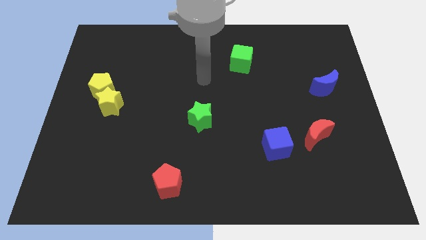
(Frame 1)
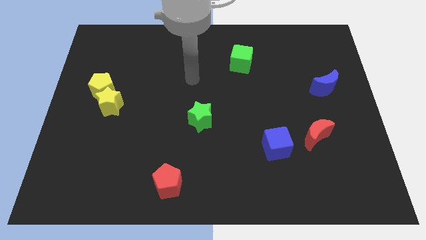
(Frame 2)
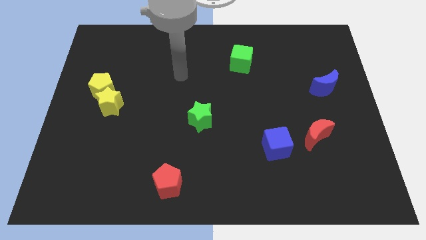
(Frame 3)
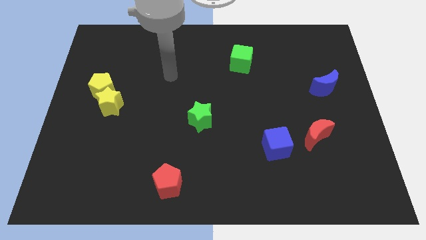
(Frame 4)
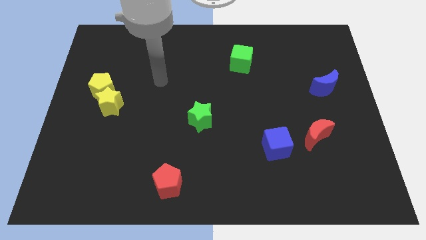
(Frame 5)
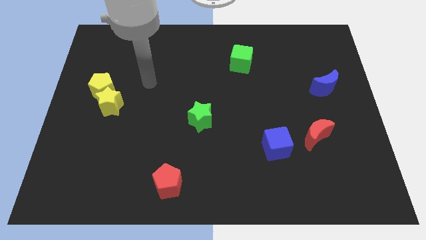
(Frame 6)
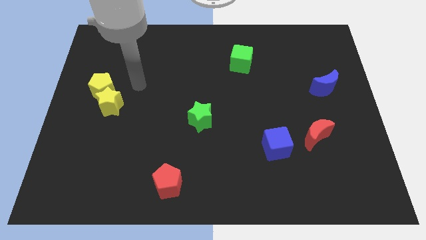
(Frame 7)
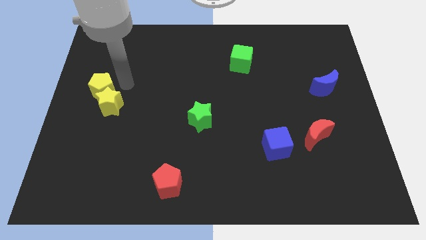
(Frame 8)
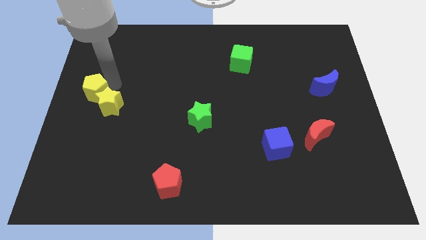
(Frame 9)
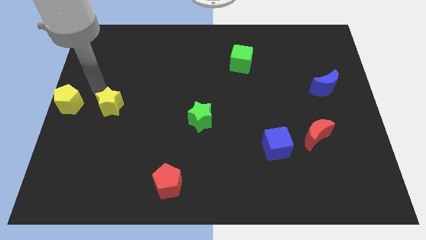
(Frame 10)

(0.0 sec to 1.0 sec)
move the yellow star away from the yellow pentagon

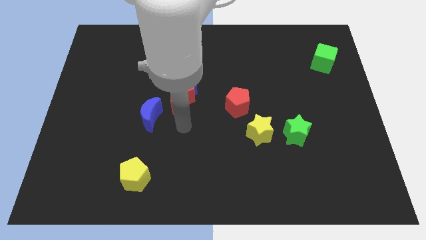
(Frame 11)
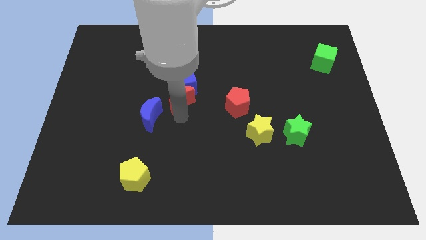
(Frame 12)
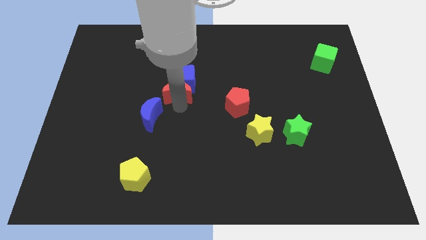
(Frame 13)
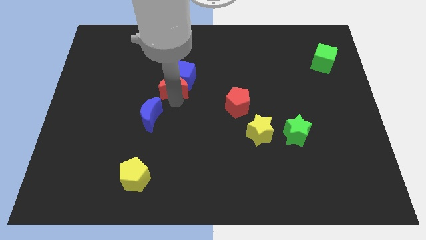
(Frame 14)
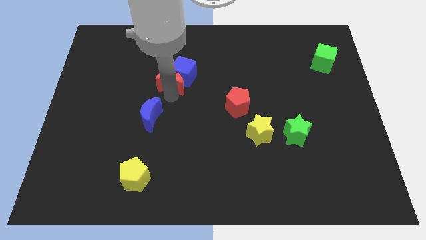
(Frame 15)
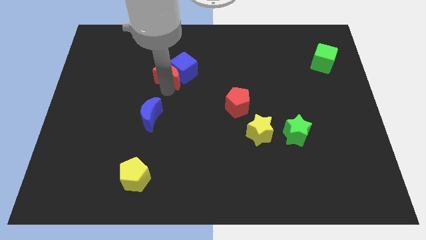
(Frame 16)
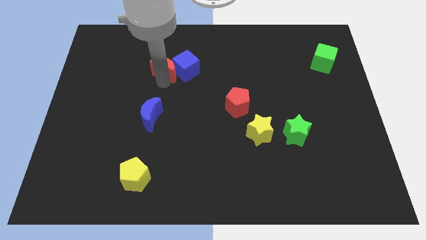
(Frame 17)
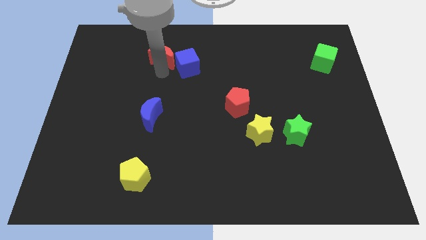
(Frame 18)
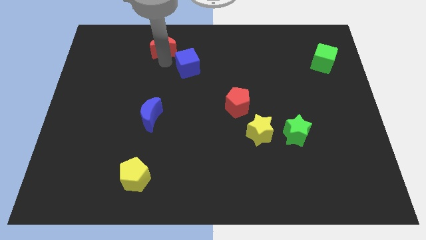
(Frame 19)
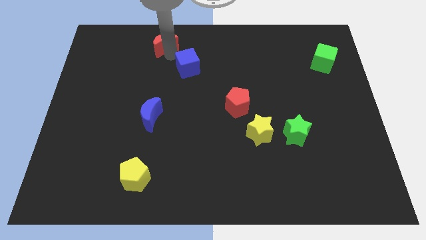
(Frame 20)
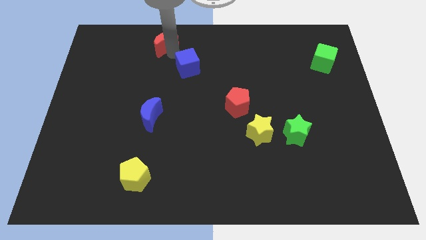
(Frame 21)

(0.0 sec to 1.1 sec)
pull the blue cube apart from the red moon

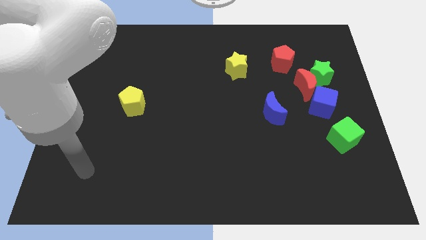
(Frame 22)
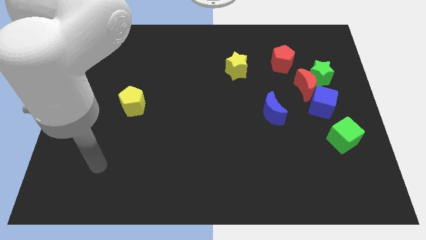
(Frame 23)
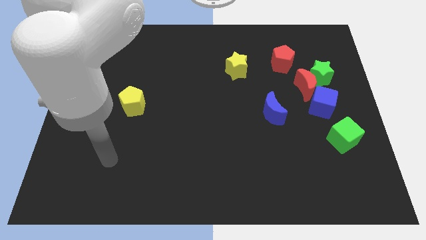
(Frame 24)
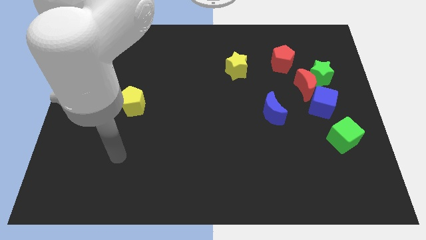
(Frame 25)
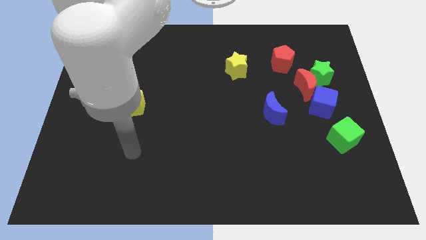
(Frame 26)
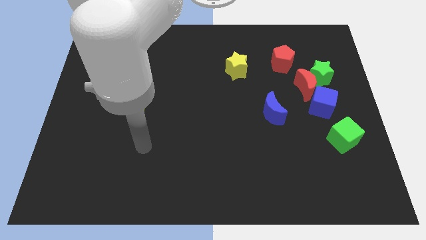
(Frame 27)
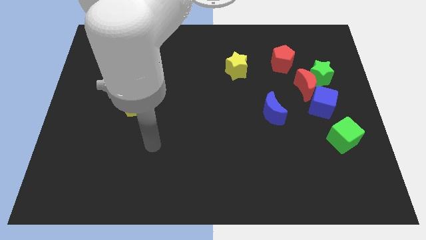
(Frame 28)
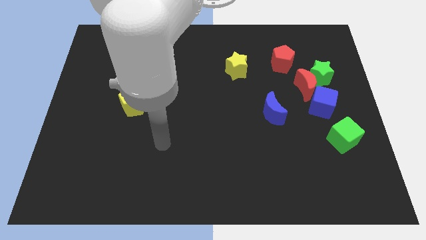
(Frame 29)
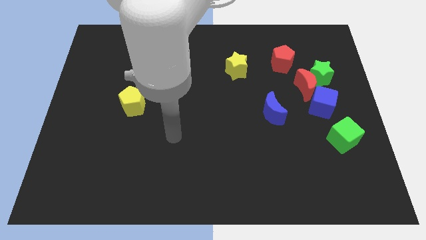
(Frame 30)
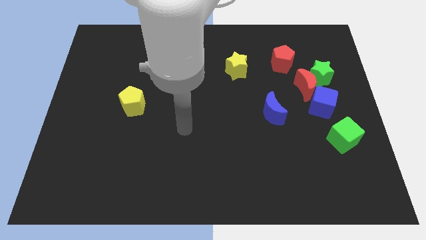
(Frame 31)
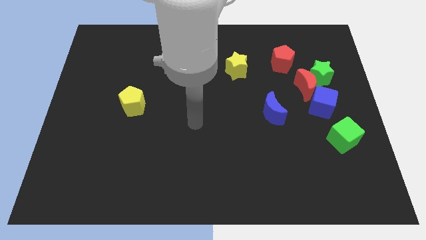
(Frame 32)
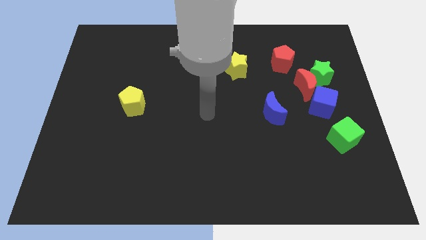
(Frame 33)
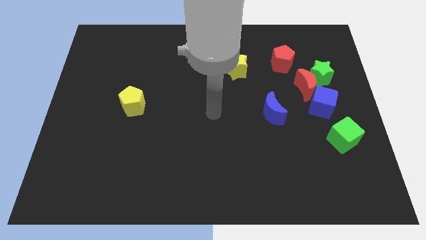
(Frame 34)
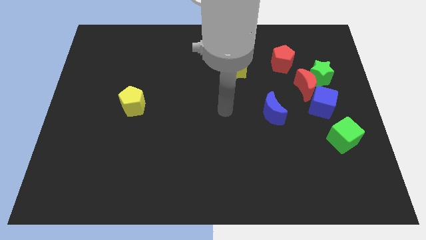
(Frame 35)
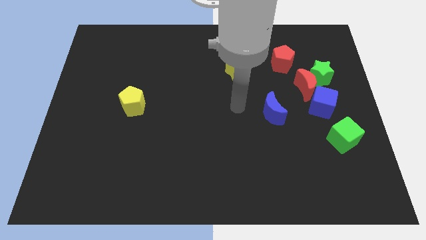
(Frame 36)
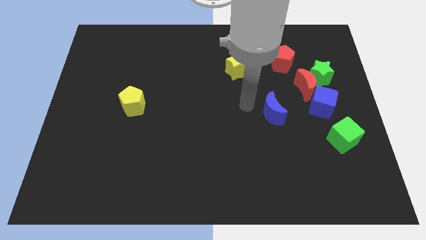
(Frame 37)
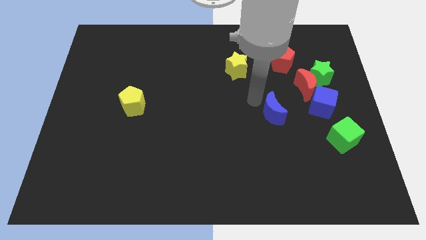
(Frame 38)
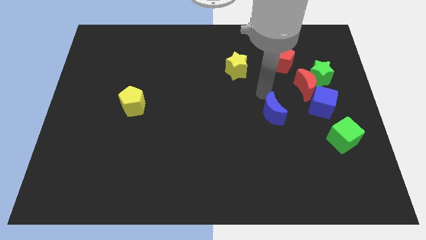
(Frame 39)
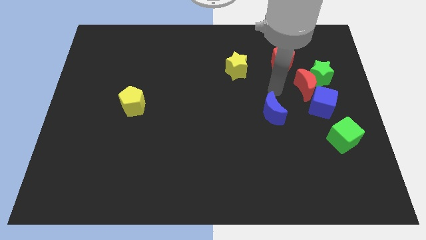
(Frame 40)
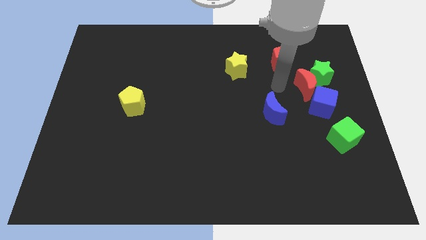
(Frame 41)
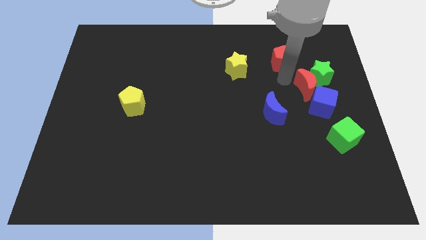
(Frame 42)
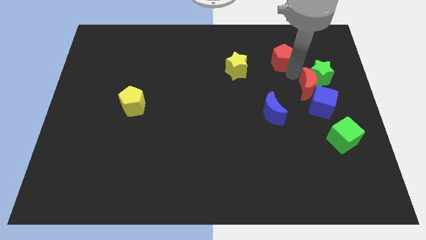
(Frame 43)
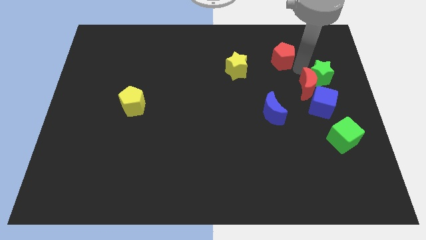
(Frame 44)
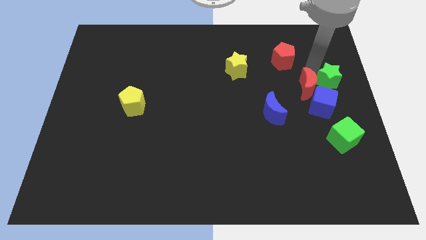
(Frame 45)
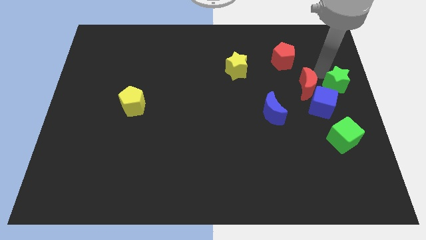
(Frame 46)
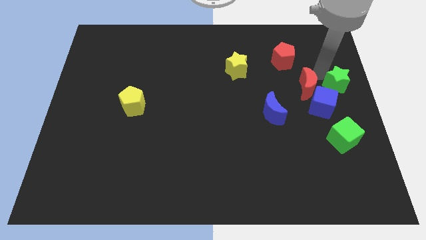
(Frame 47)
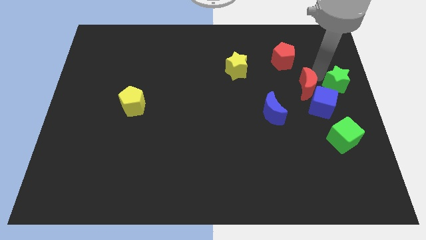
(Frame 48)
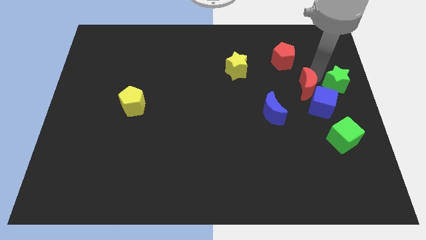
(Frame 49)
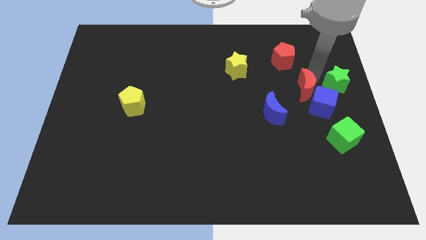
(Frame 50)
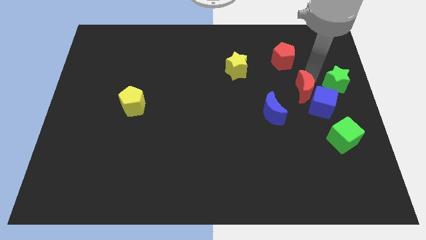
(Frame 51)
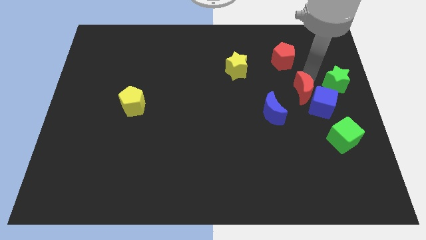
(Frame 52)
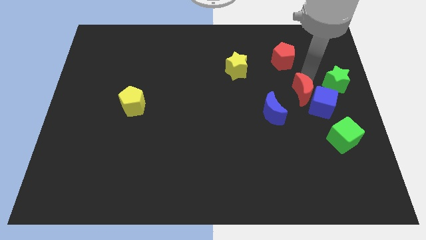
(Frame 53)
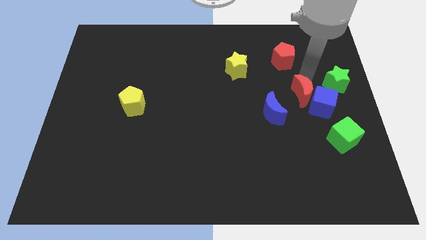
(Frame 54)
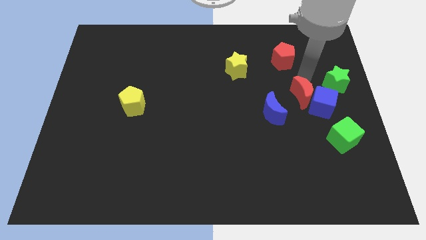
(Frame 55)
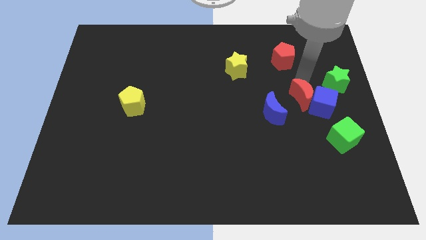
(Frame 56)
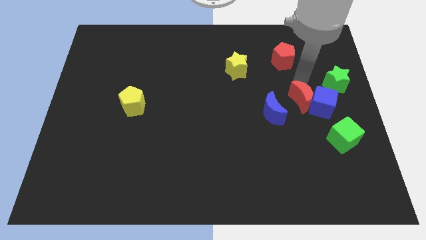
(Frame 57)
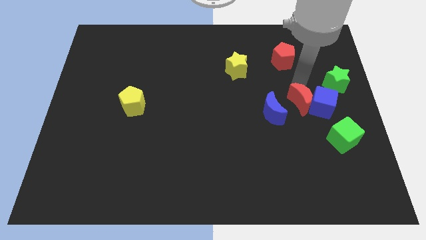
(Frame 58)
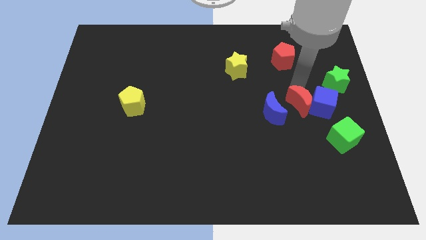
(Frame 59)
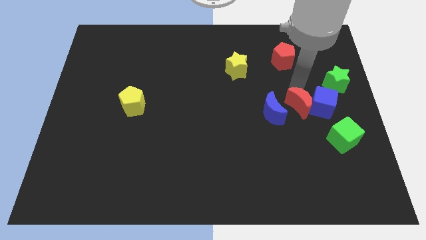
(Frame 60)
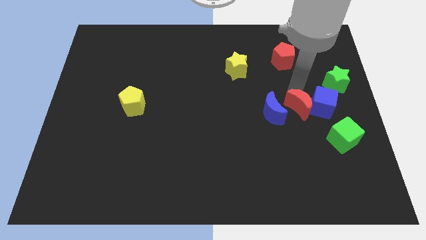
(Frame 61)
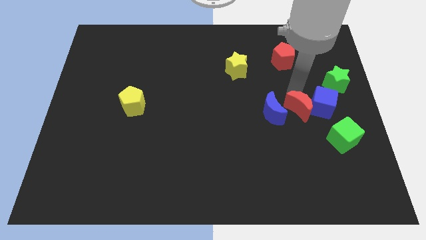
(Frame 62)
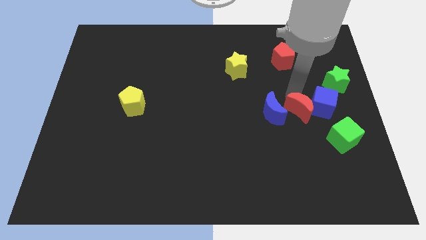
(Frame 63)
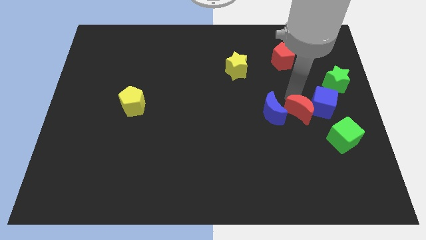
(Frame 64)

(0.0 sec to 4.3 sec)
pull the red moon apart from the green star, blue cube, and red pentagon

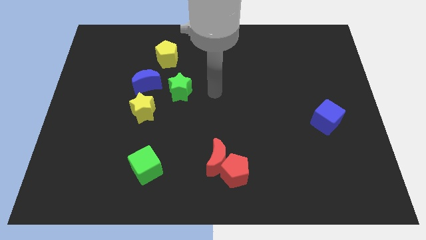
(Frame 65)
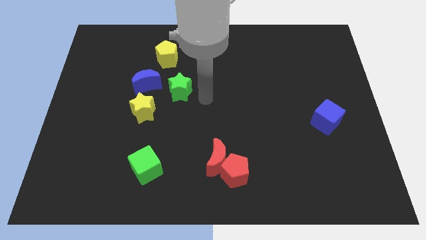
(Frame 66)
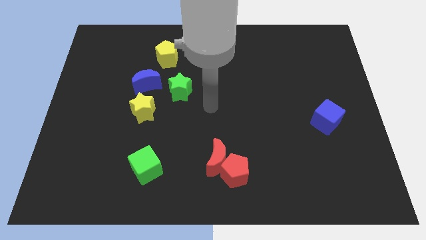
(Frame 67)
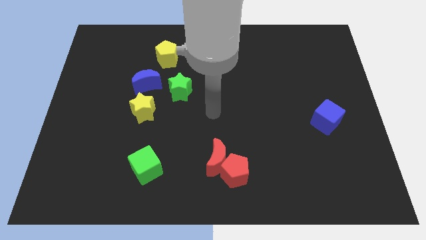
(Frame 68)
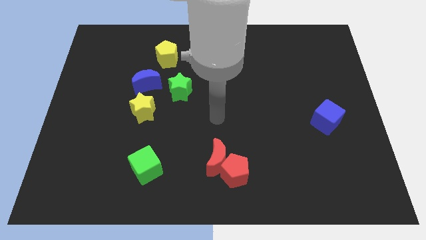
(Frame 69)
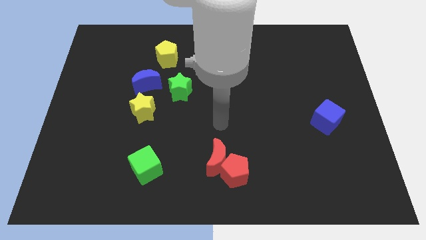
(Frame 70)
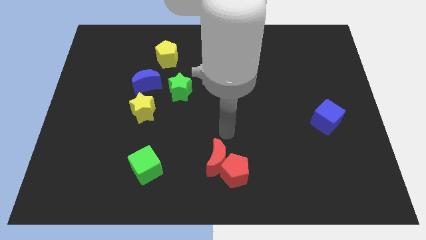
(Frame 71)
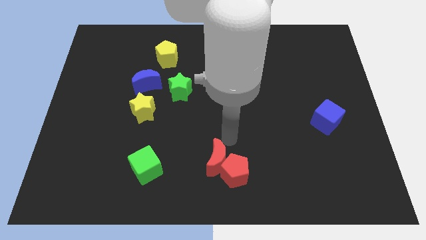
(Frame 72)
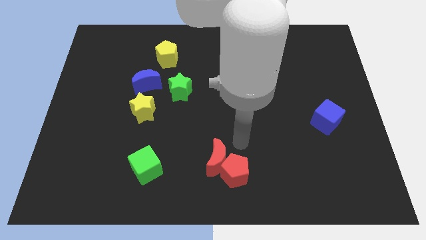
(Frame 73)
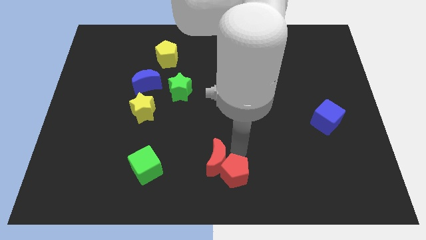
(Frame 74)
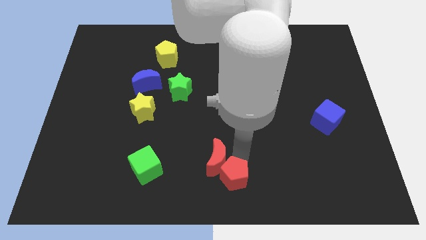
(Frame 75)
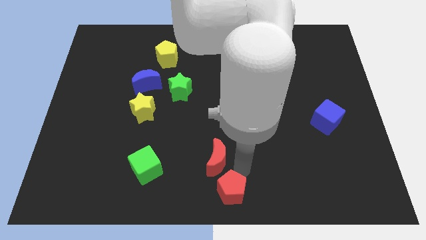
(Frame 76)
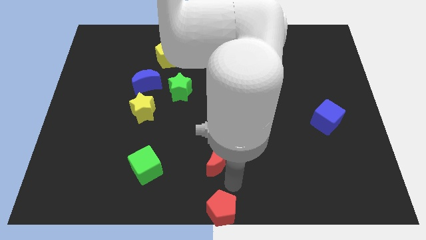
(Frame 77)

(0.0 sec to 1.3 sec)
move the red moon away from the red pentagon

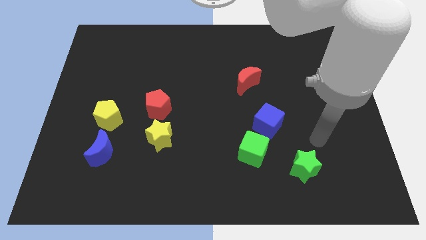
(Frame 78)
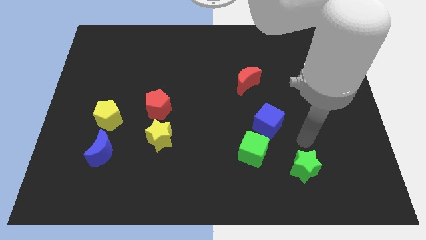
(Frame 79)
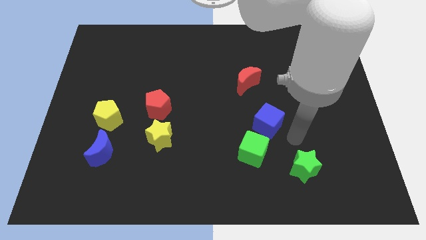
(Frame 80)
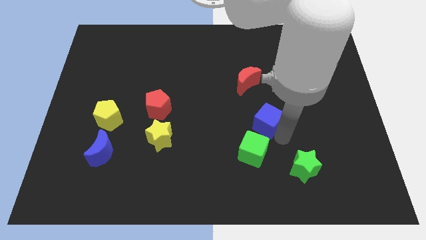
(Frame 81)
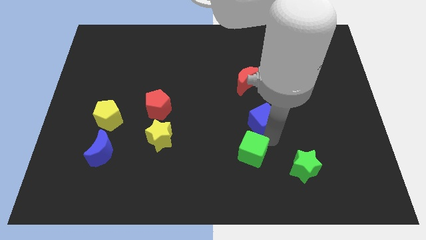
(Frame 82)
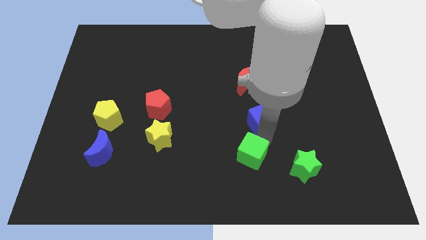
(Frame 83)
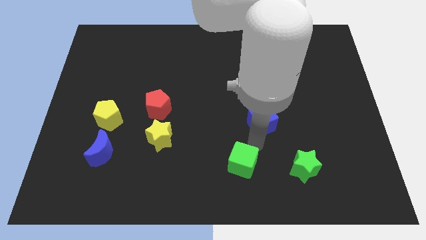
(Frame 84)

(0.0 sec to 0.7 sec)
separate the blue cube from the green cube

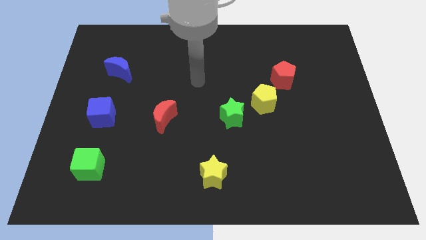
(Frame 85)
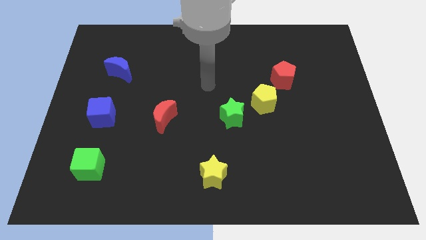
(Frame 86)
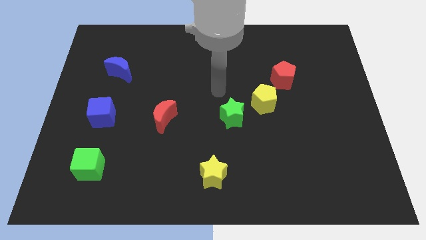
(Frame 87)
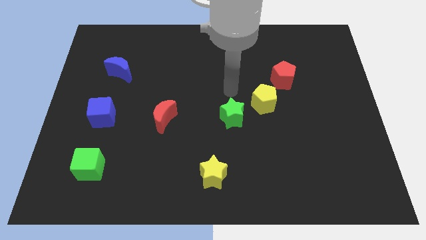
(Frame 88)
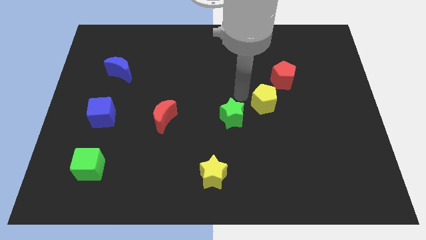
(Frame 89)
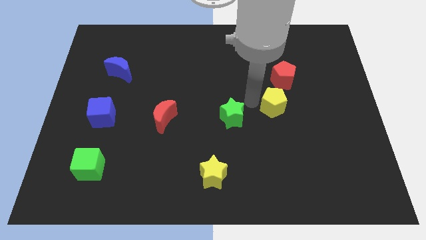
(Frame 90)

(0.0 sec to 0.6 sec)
move the green star away from the yellow pentagon

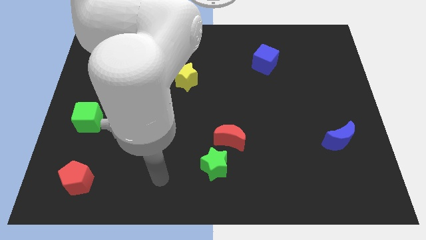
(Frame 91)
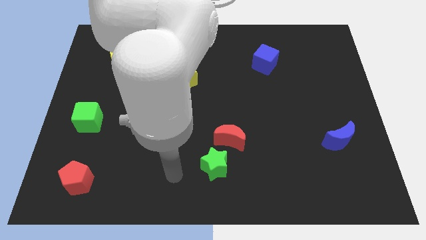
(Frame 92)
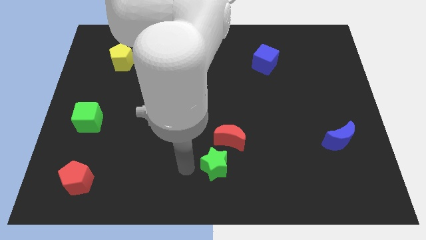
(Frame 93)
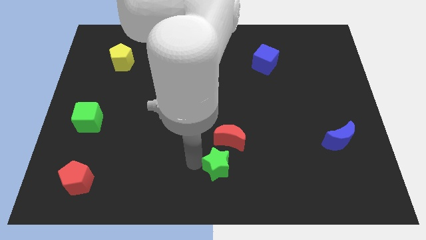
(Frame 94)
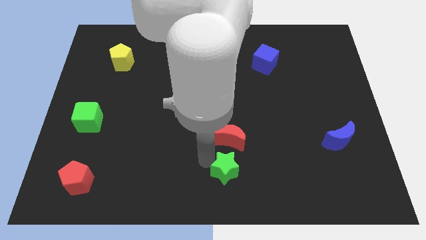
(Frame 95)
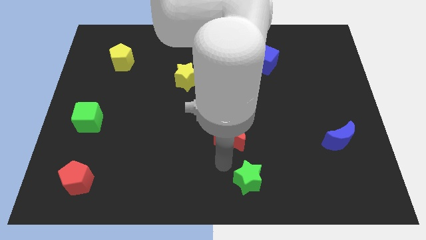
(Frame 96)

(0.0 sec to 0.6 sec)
separate the red moon from the green star
